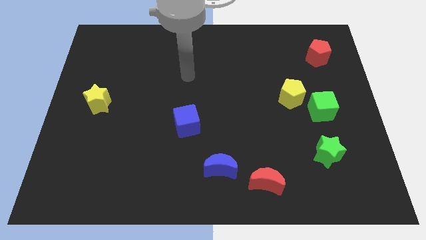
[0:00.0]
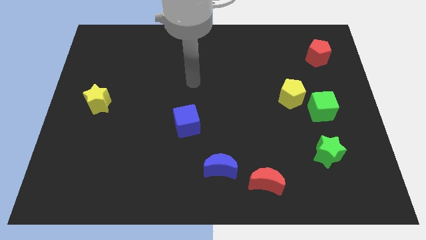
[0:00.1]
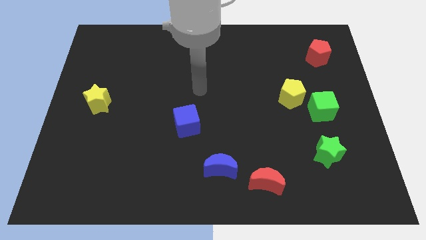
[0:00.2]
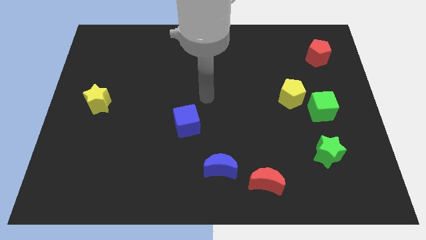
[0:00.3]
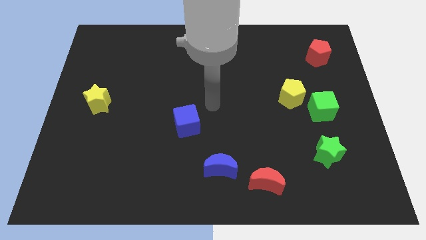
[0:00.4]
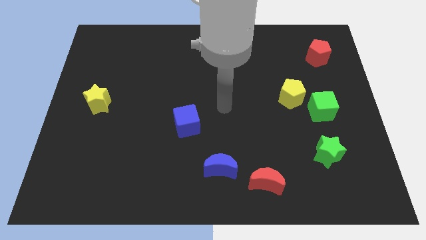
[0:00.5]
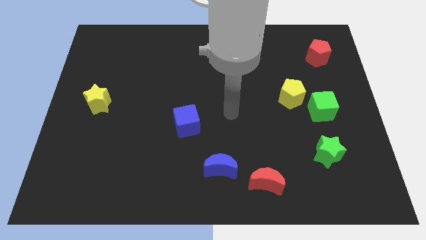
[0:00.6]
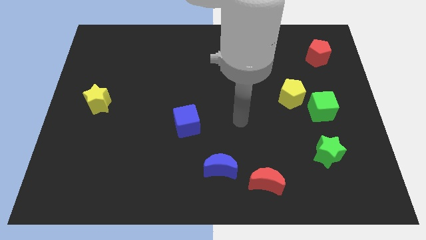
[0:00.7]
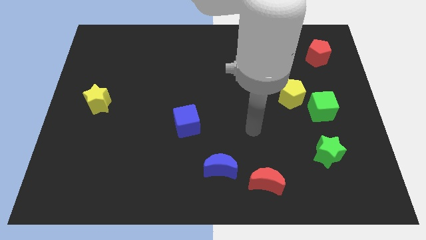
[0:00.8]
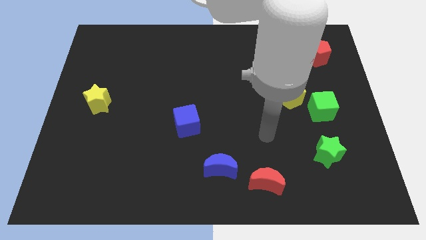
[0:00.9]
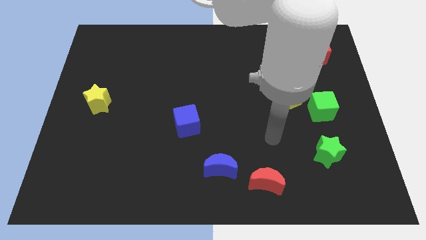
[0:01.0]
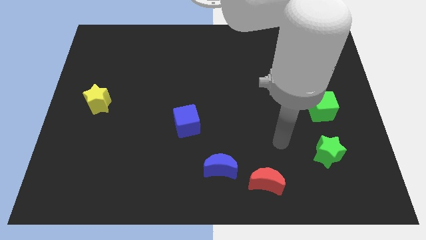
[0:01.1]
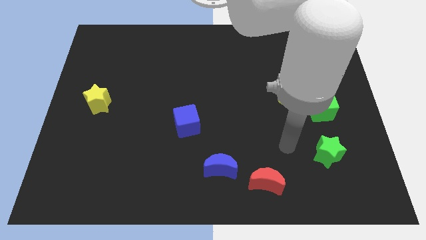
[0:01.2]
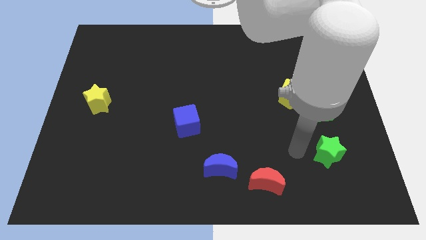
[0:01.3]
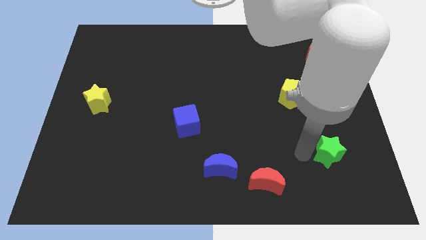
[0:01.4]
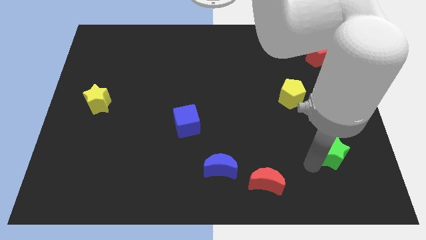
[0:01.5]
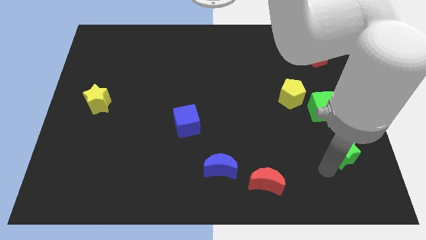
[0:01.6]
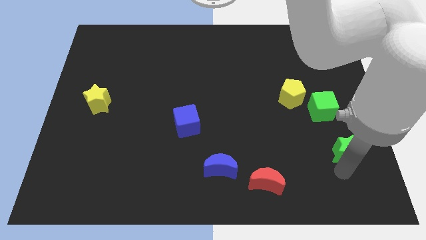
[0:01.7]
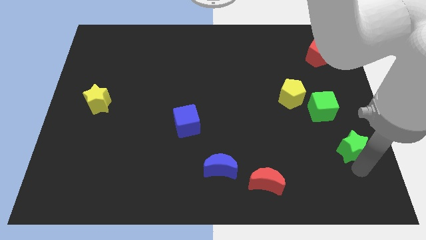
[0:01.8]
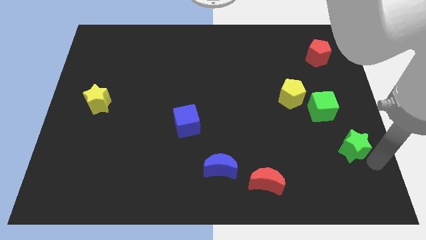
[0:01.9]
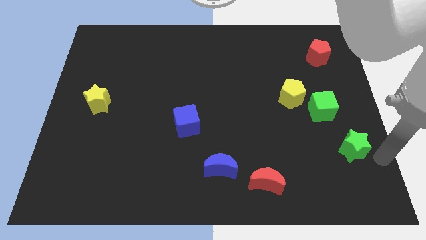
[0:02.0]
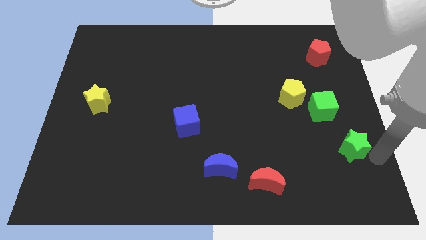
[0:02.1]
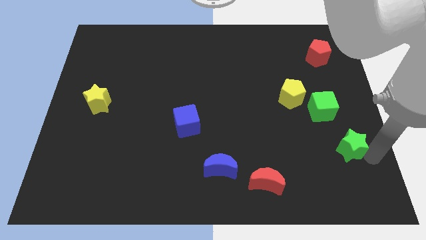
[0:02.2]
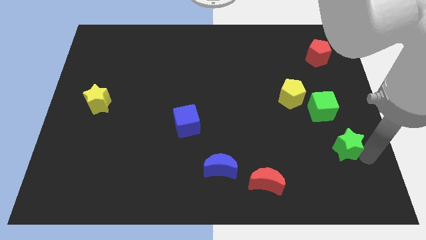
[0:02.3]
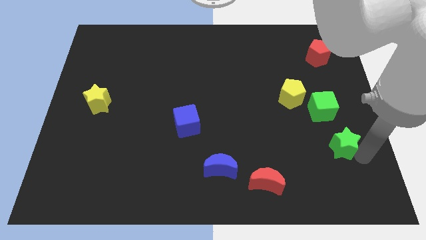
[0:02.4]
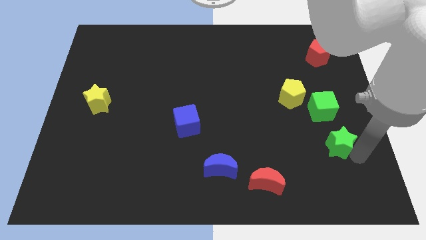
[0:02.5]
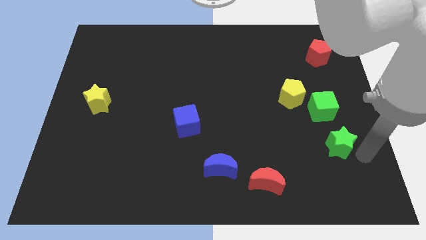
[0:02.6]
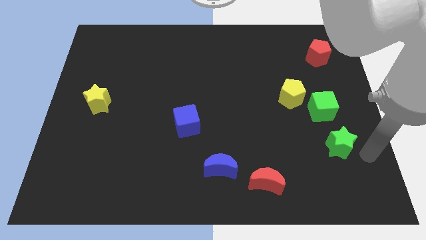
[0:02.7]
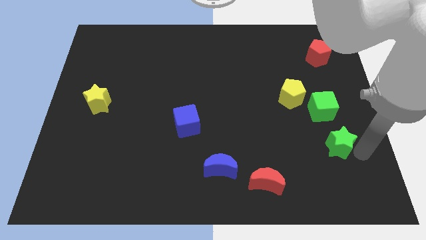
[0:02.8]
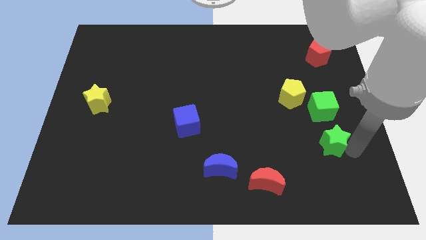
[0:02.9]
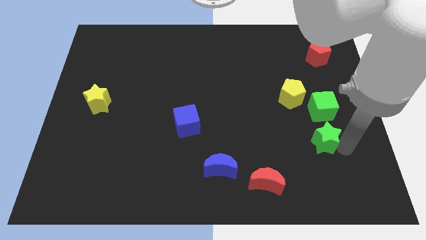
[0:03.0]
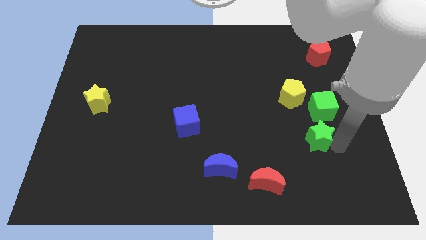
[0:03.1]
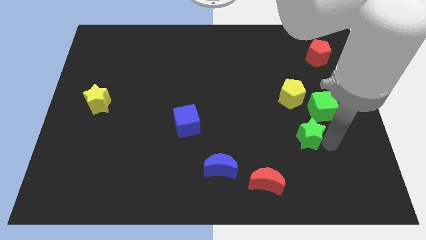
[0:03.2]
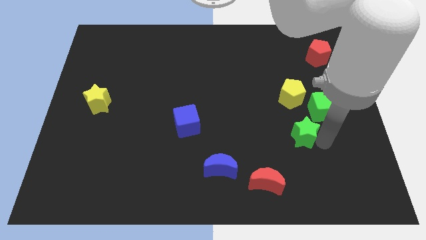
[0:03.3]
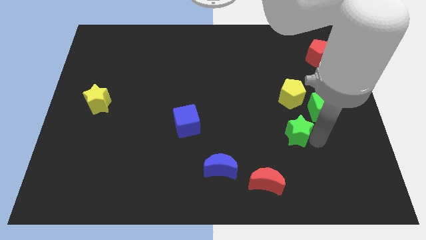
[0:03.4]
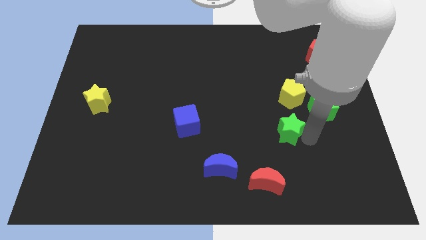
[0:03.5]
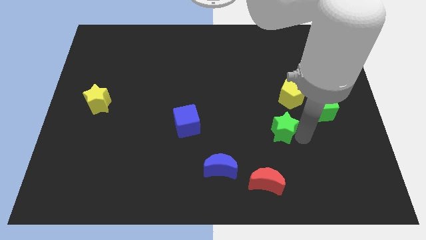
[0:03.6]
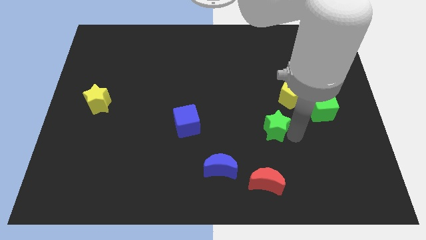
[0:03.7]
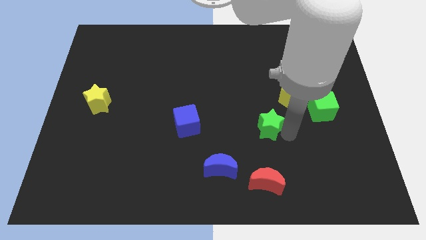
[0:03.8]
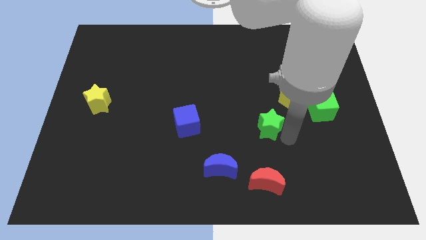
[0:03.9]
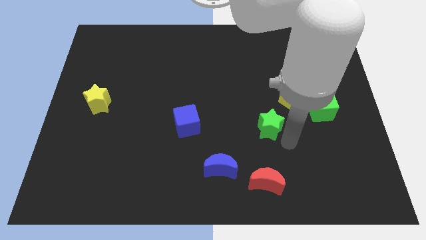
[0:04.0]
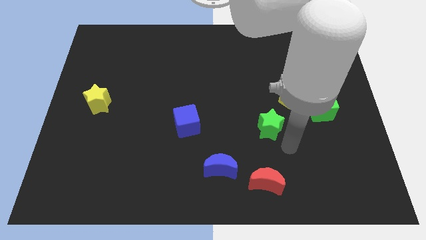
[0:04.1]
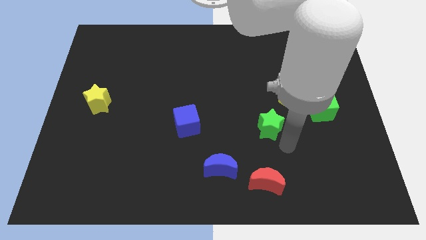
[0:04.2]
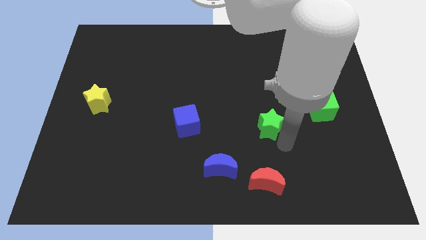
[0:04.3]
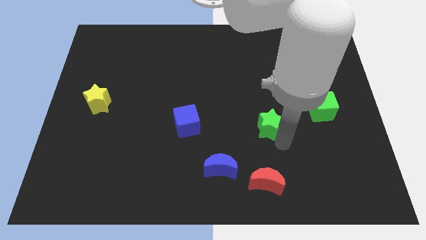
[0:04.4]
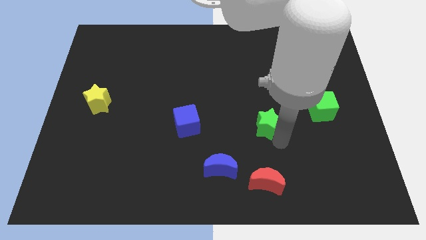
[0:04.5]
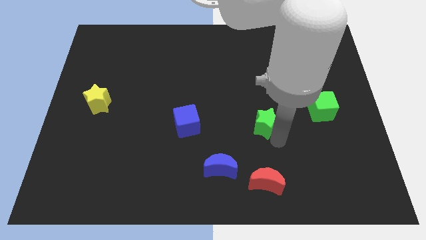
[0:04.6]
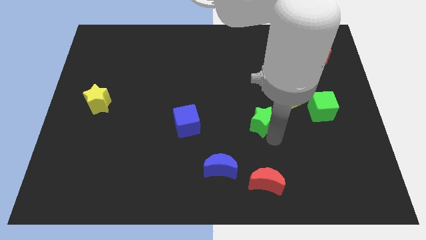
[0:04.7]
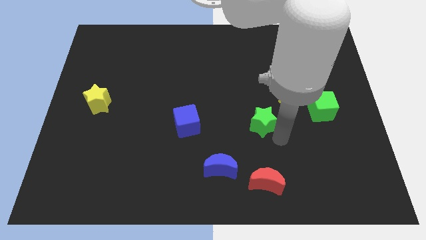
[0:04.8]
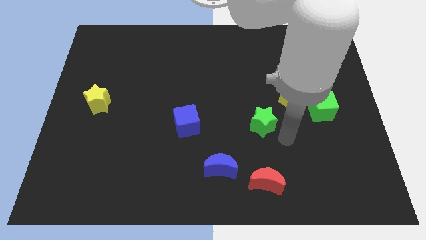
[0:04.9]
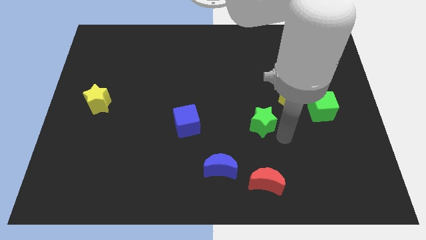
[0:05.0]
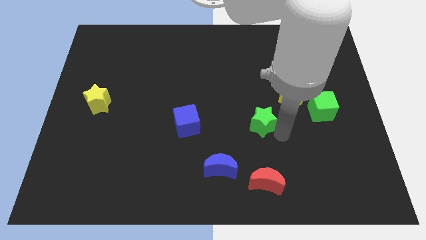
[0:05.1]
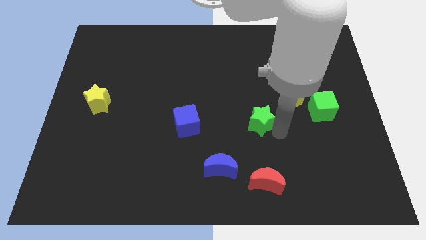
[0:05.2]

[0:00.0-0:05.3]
put the green star to the center

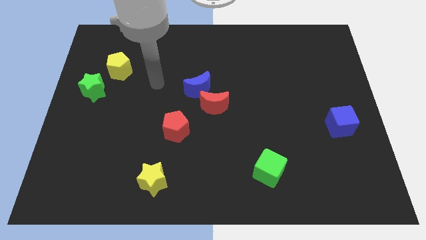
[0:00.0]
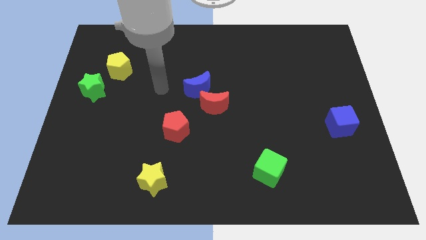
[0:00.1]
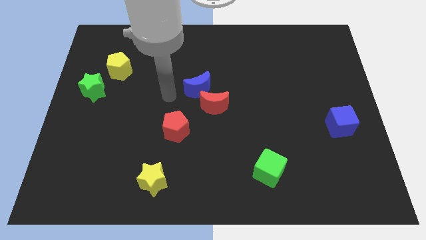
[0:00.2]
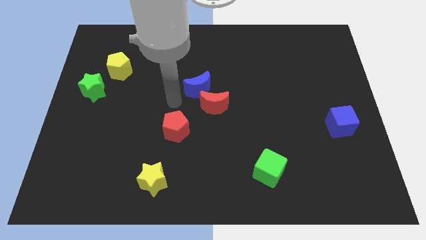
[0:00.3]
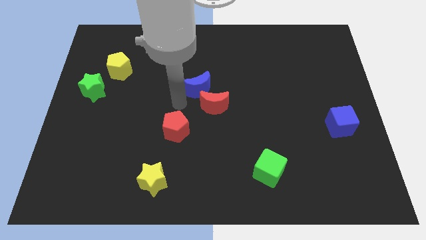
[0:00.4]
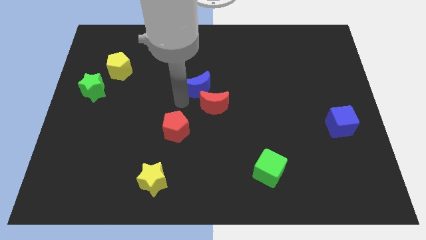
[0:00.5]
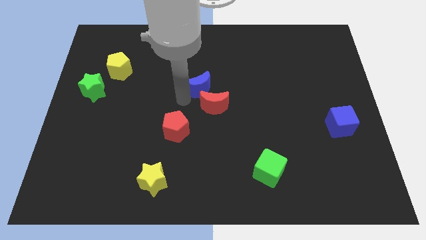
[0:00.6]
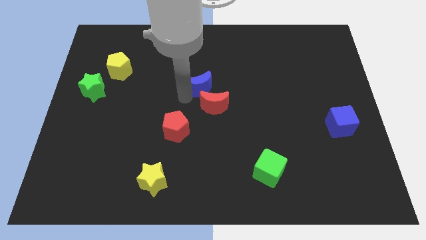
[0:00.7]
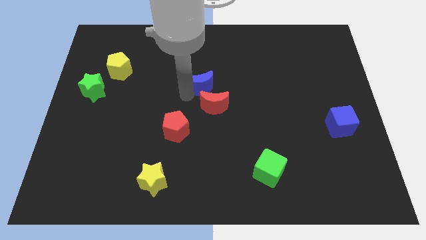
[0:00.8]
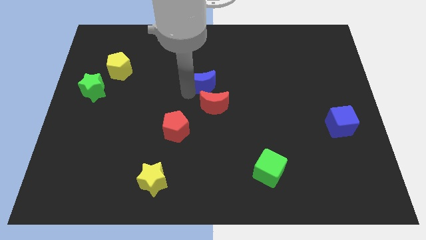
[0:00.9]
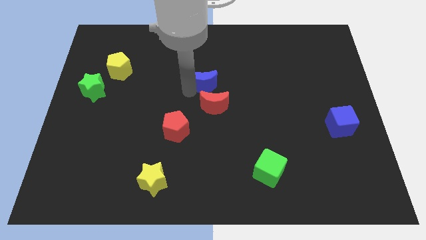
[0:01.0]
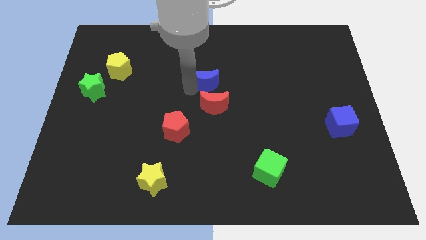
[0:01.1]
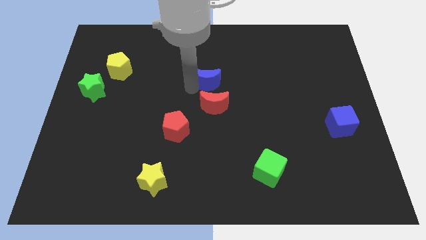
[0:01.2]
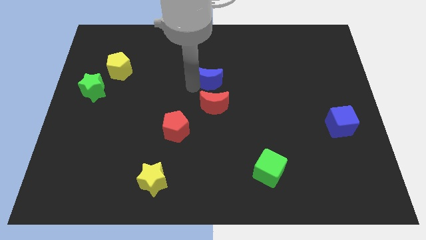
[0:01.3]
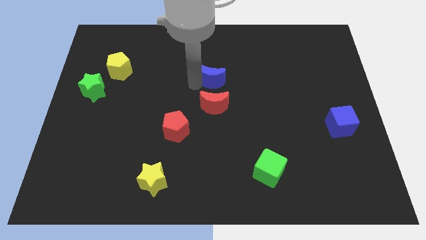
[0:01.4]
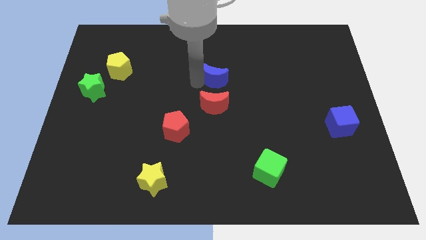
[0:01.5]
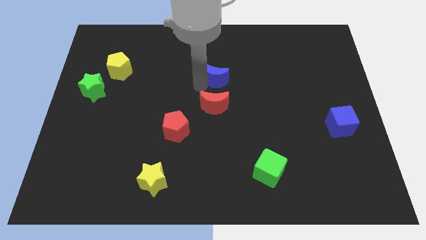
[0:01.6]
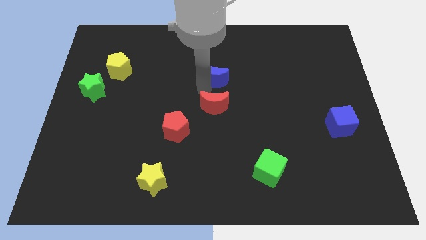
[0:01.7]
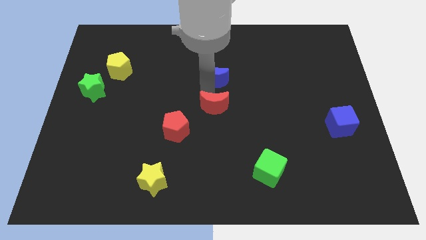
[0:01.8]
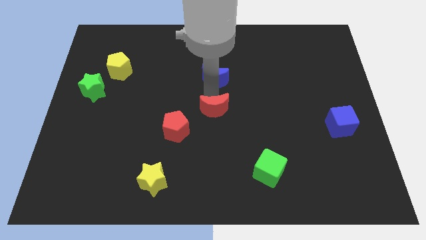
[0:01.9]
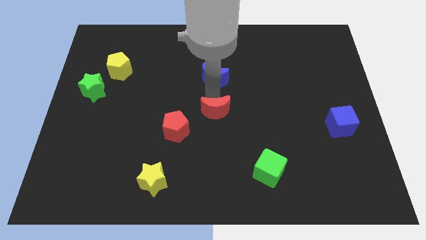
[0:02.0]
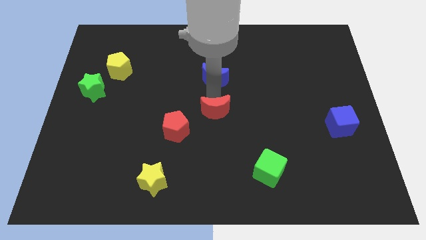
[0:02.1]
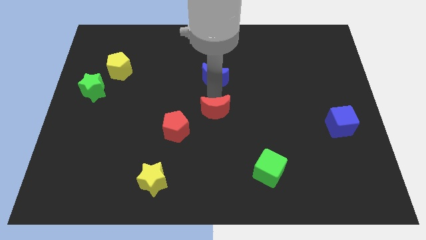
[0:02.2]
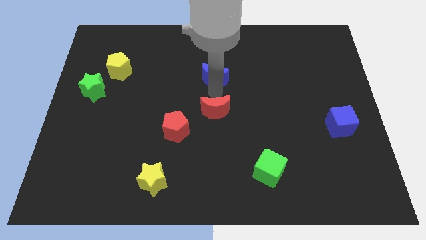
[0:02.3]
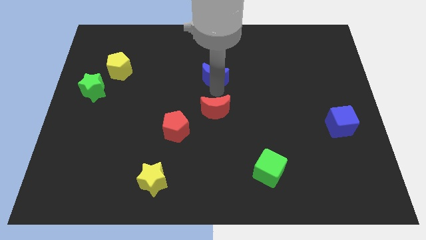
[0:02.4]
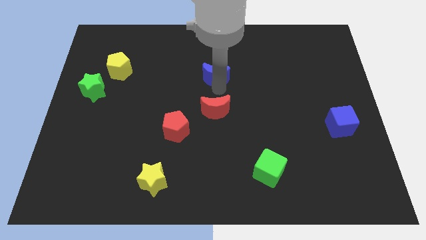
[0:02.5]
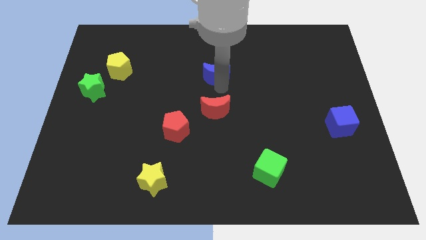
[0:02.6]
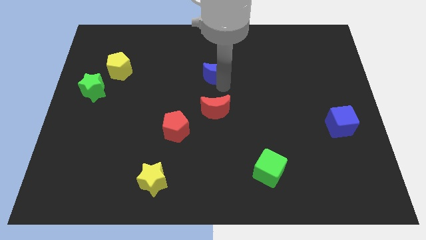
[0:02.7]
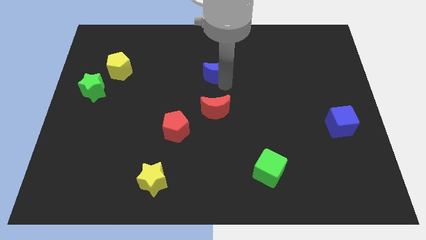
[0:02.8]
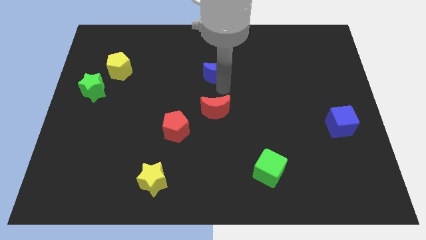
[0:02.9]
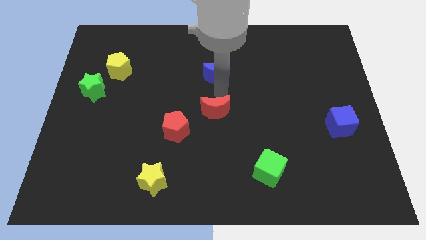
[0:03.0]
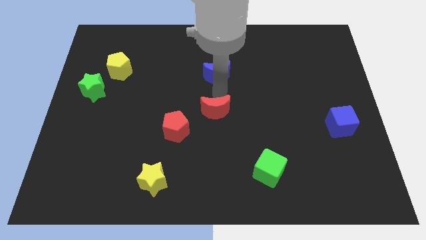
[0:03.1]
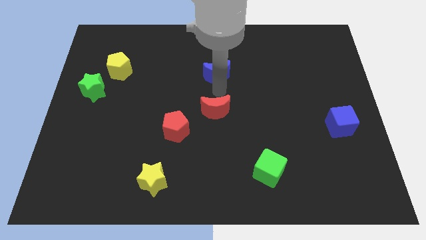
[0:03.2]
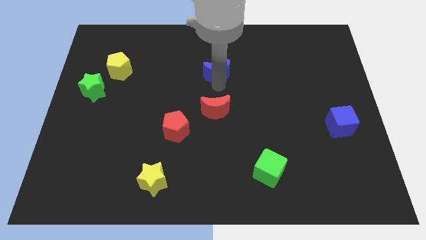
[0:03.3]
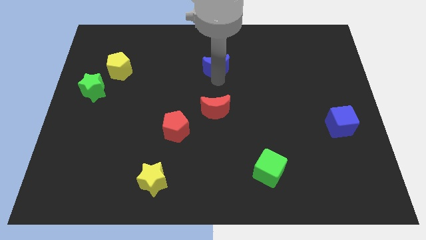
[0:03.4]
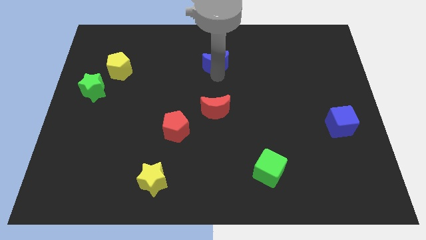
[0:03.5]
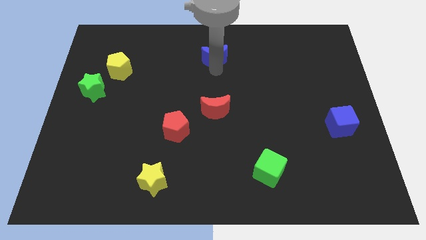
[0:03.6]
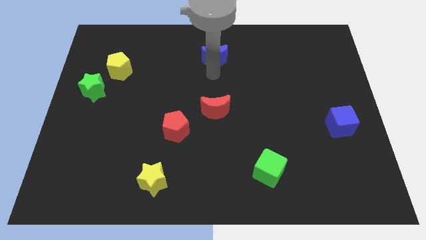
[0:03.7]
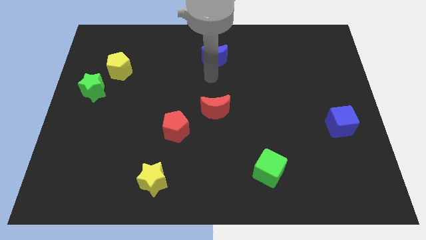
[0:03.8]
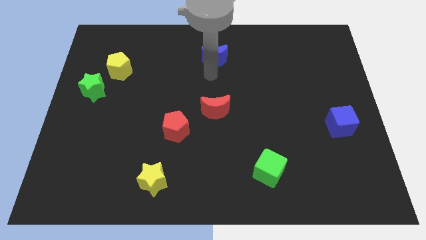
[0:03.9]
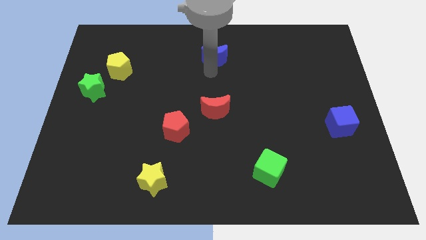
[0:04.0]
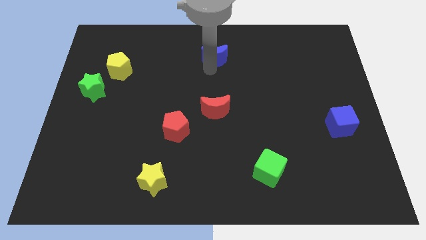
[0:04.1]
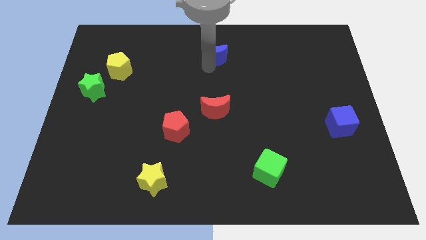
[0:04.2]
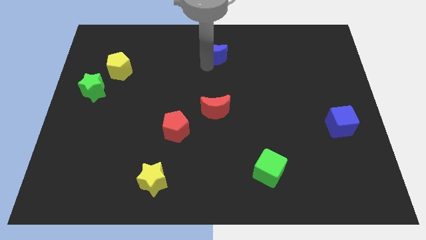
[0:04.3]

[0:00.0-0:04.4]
put the blue moon to the top
